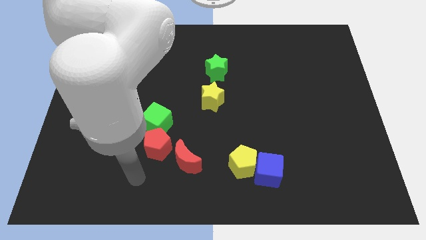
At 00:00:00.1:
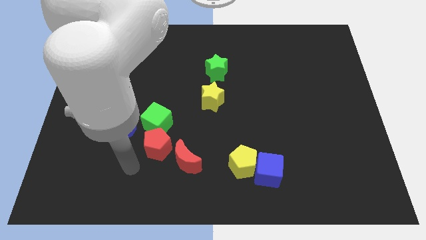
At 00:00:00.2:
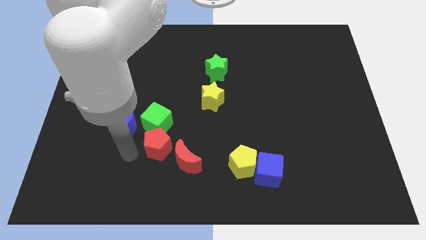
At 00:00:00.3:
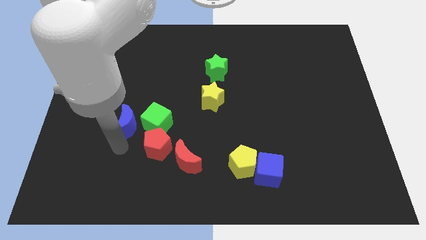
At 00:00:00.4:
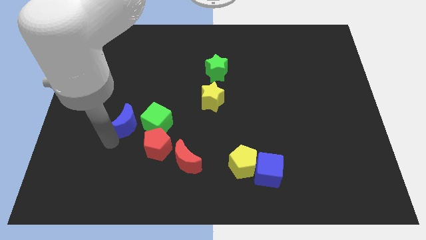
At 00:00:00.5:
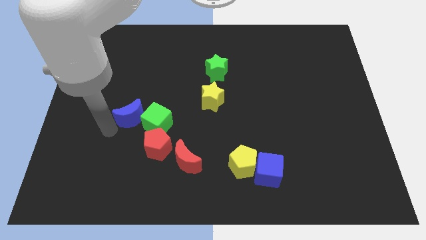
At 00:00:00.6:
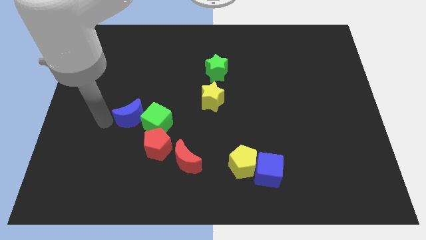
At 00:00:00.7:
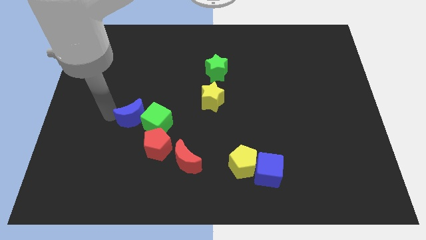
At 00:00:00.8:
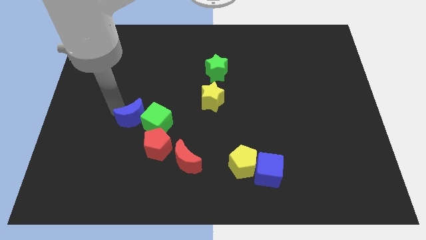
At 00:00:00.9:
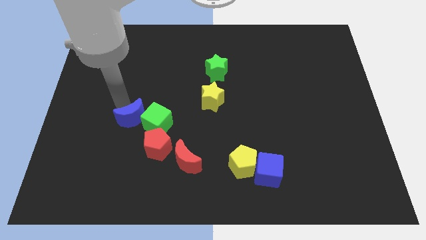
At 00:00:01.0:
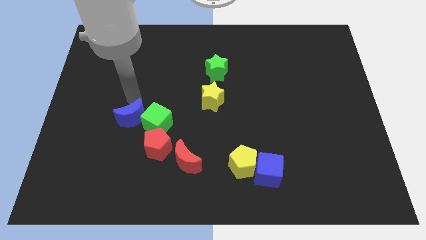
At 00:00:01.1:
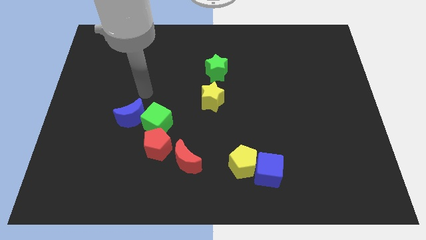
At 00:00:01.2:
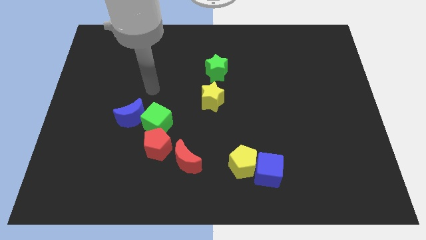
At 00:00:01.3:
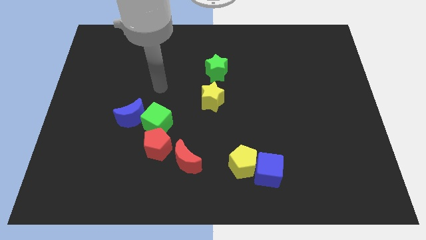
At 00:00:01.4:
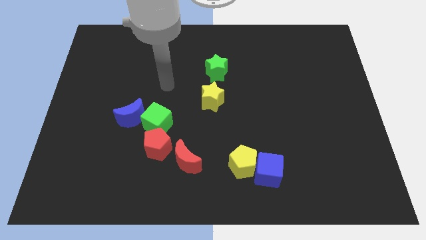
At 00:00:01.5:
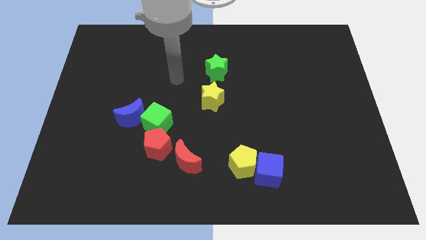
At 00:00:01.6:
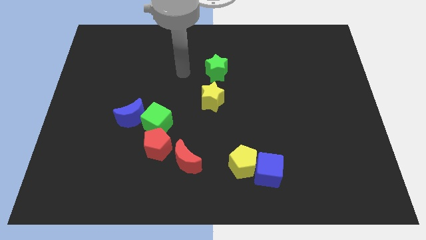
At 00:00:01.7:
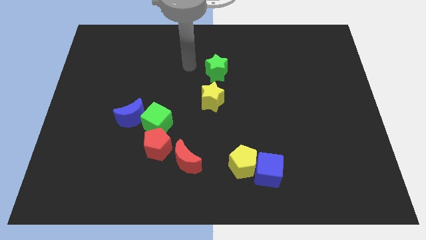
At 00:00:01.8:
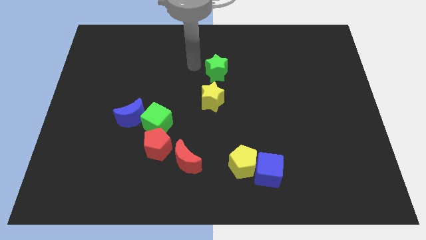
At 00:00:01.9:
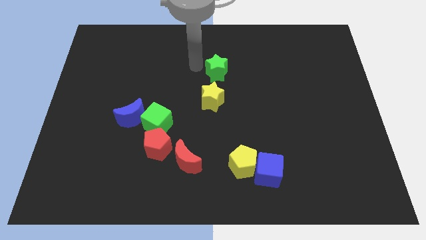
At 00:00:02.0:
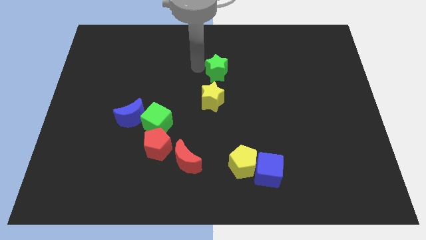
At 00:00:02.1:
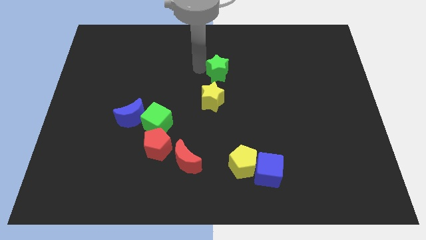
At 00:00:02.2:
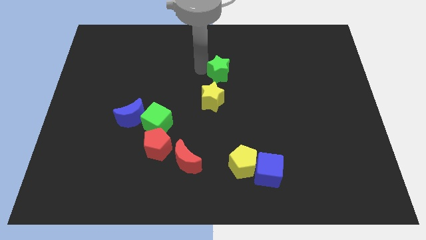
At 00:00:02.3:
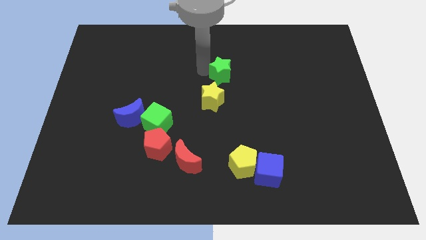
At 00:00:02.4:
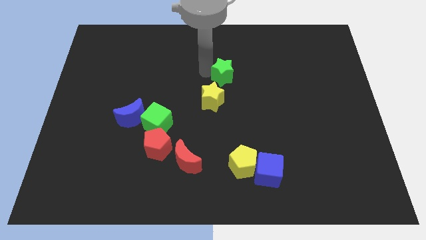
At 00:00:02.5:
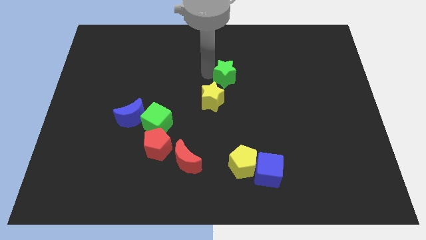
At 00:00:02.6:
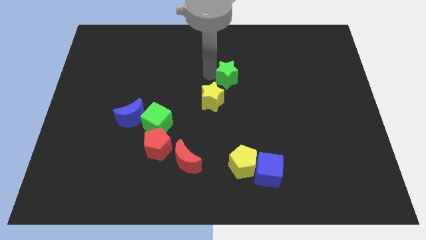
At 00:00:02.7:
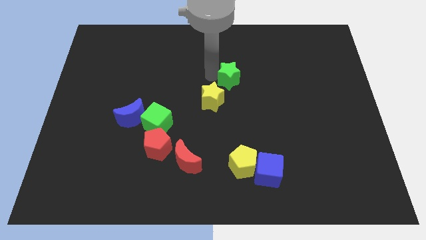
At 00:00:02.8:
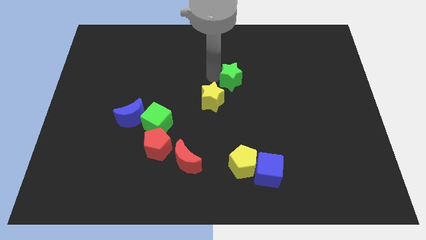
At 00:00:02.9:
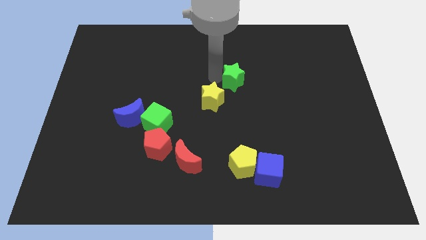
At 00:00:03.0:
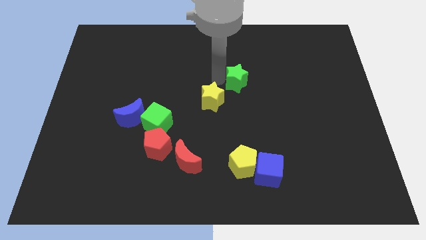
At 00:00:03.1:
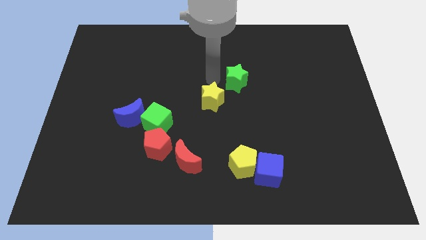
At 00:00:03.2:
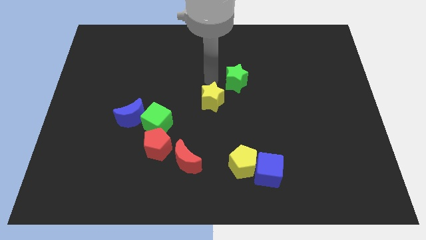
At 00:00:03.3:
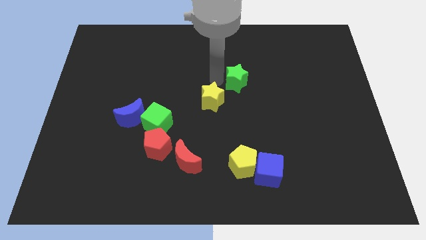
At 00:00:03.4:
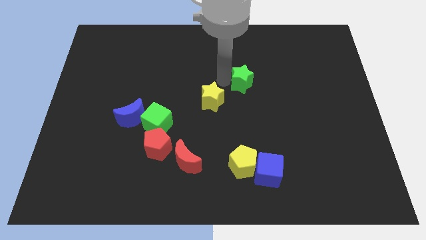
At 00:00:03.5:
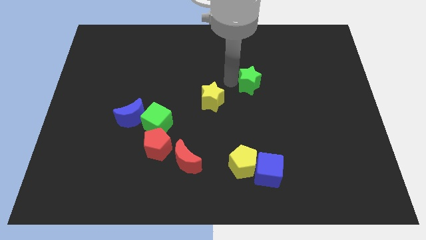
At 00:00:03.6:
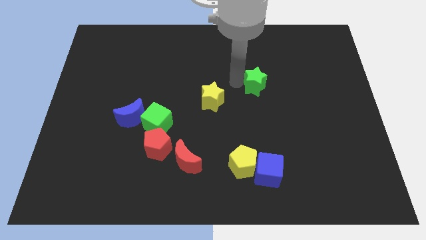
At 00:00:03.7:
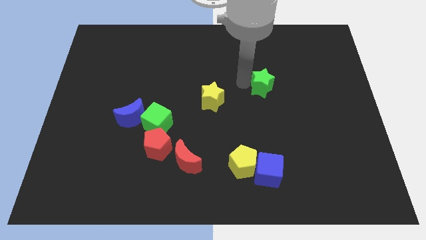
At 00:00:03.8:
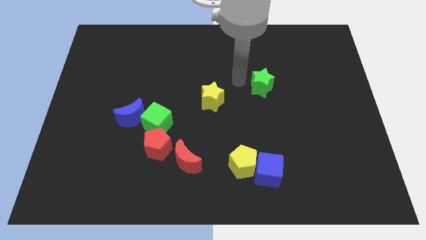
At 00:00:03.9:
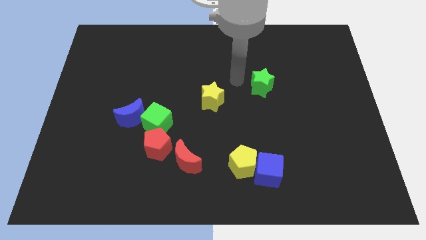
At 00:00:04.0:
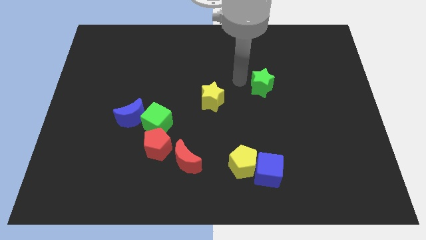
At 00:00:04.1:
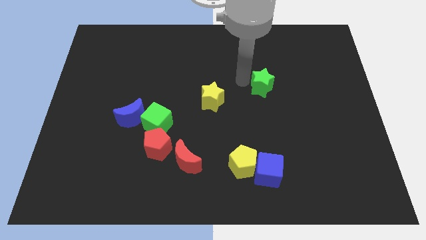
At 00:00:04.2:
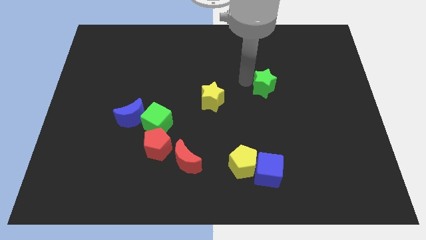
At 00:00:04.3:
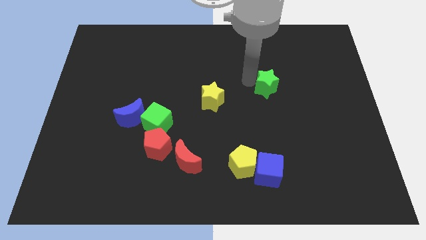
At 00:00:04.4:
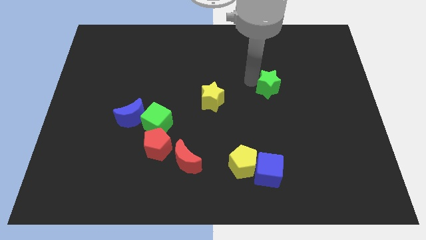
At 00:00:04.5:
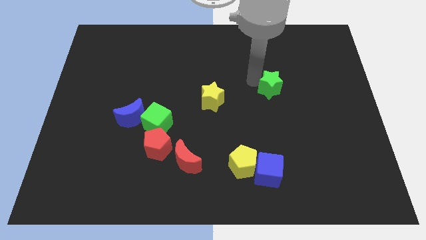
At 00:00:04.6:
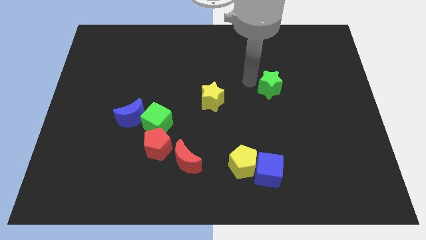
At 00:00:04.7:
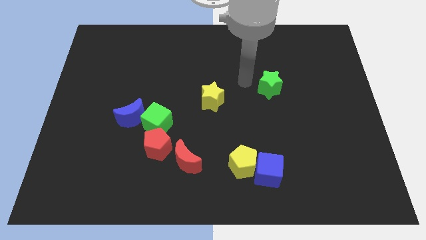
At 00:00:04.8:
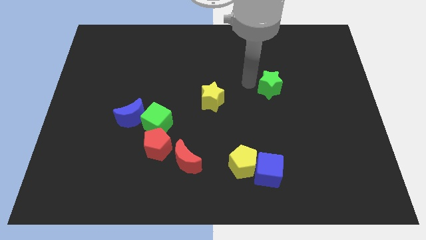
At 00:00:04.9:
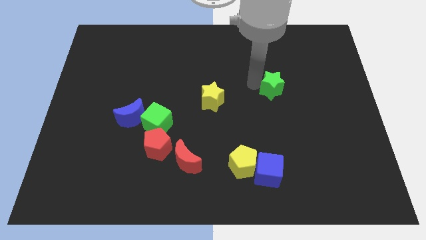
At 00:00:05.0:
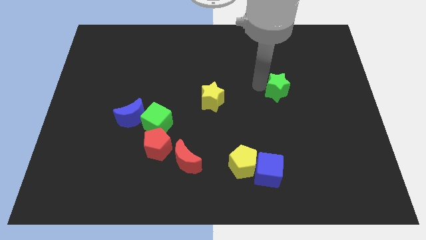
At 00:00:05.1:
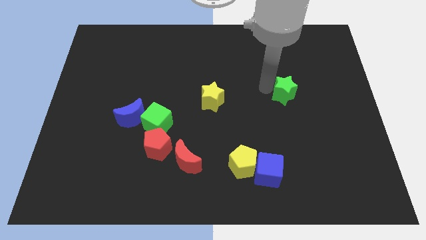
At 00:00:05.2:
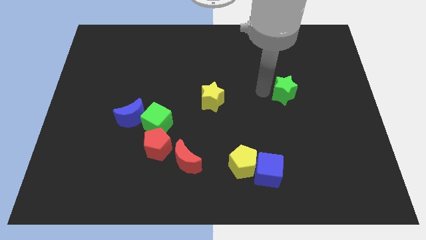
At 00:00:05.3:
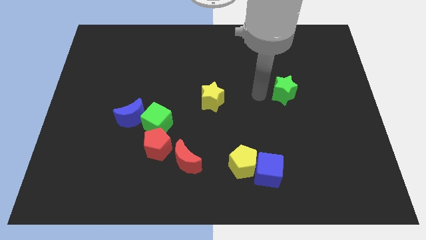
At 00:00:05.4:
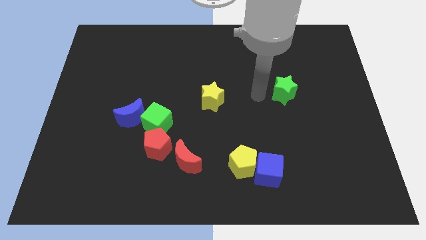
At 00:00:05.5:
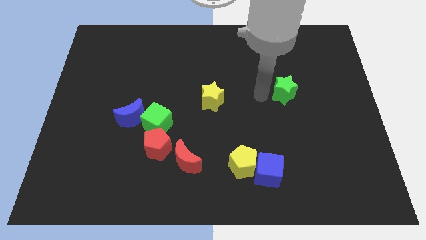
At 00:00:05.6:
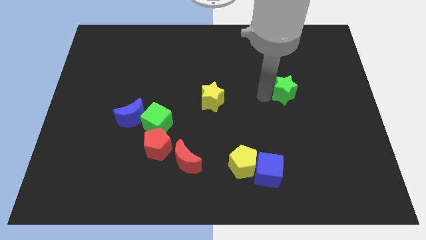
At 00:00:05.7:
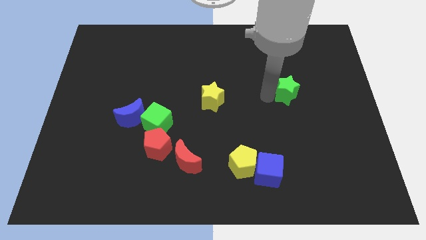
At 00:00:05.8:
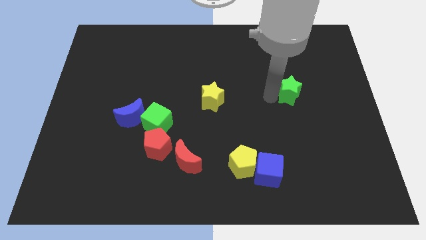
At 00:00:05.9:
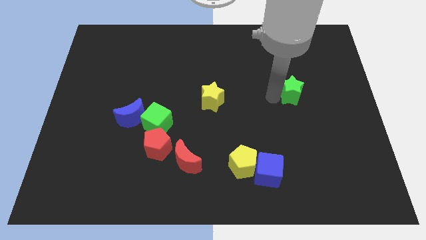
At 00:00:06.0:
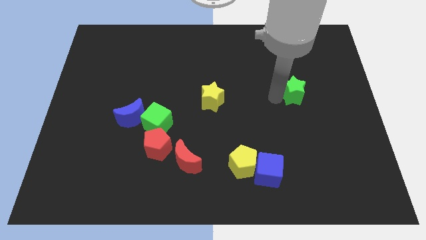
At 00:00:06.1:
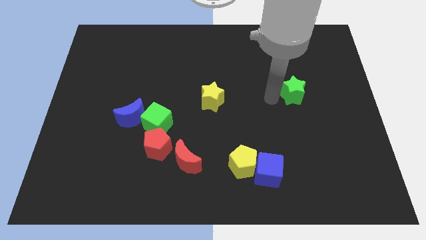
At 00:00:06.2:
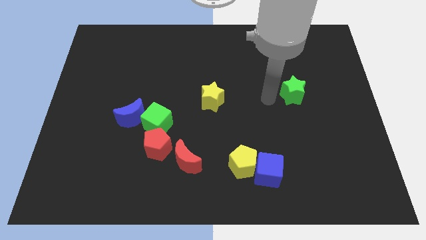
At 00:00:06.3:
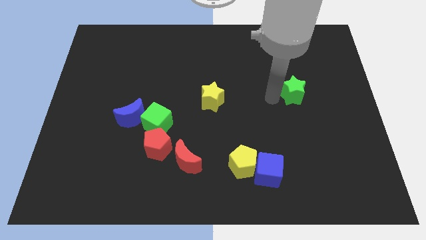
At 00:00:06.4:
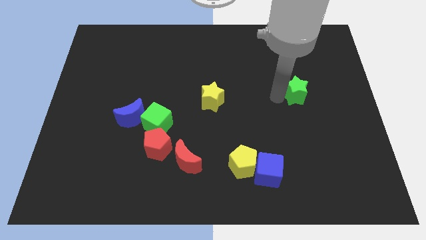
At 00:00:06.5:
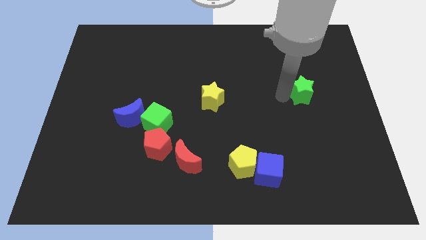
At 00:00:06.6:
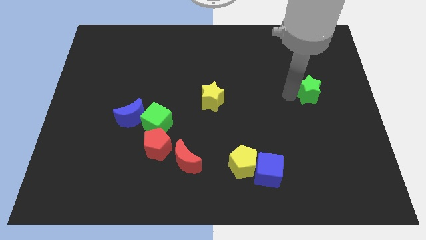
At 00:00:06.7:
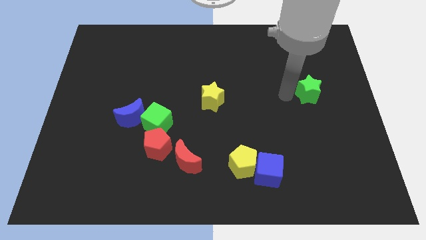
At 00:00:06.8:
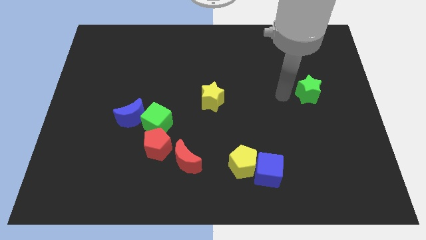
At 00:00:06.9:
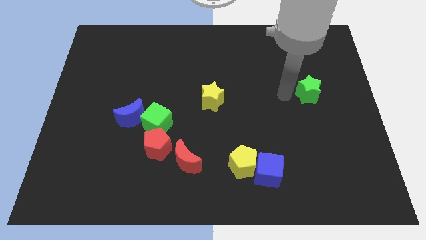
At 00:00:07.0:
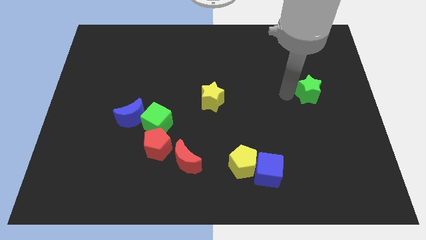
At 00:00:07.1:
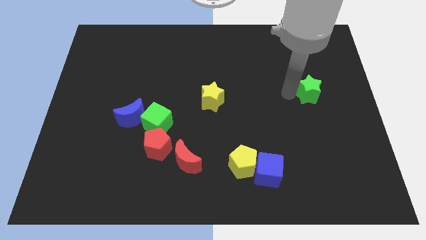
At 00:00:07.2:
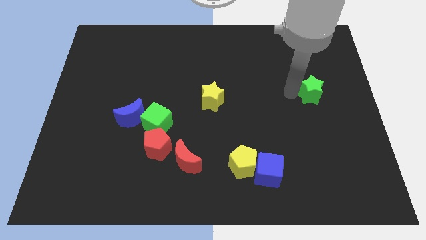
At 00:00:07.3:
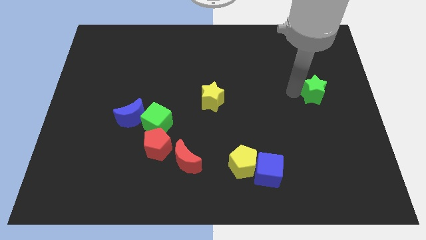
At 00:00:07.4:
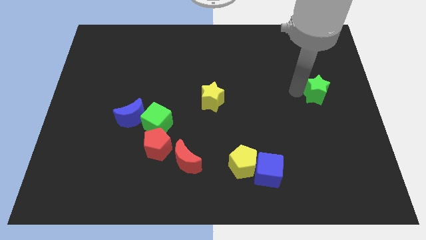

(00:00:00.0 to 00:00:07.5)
slide the green star to the center right

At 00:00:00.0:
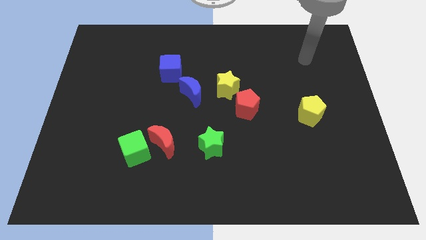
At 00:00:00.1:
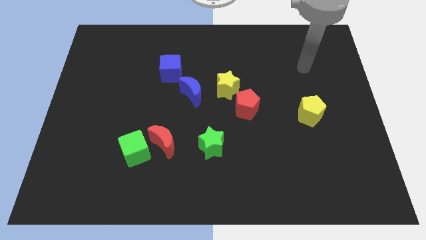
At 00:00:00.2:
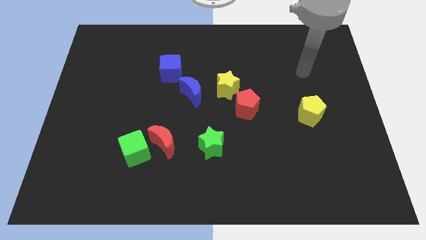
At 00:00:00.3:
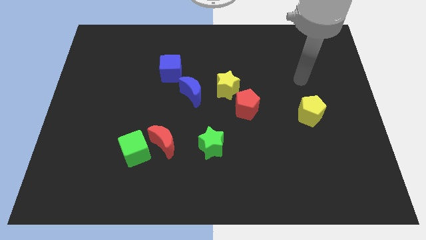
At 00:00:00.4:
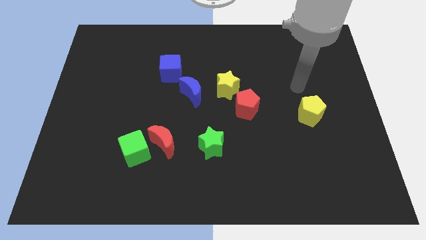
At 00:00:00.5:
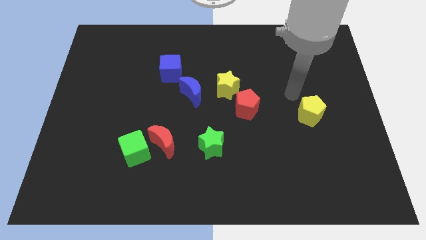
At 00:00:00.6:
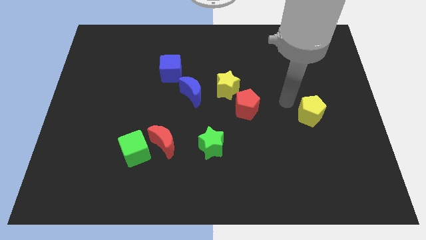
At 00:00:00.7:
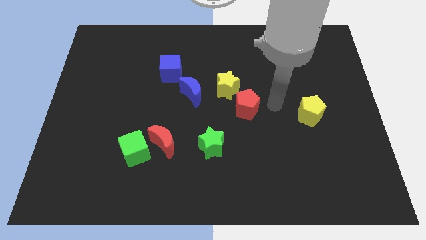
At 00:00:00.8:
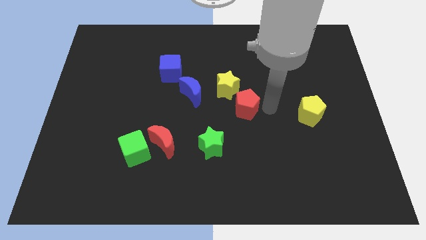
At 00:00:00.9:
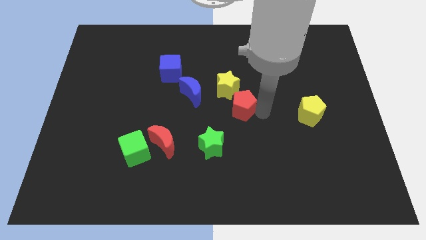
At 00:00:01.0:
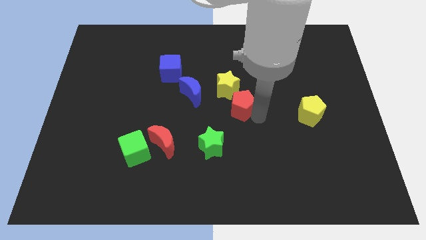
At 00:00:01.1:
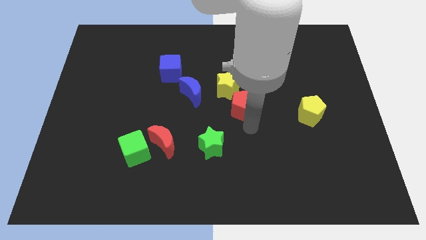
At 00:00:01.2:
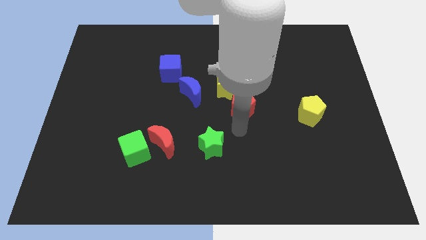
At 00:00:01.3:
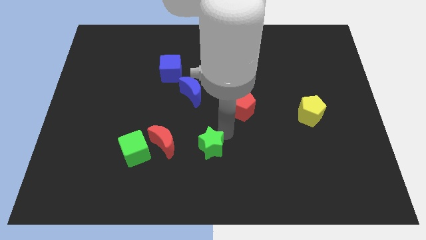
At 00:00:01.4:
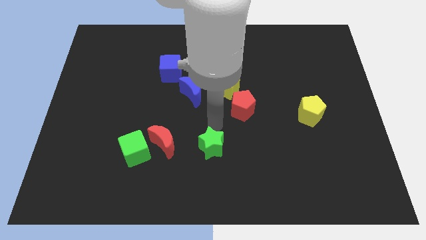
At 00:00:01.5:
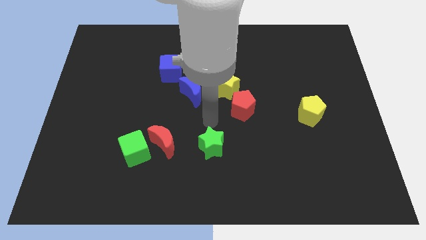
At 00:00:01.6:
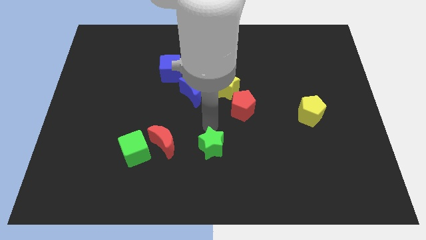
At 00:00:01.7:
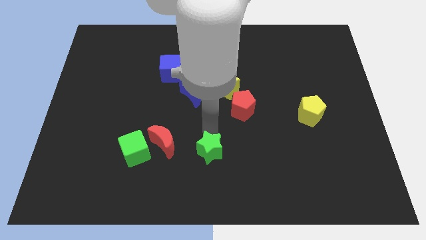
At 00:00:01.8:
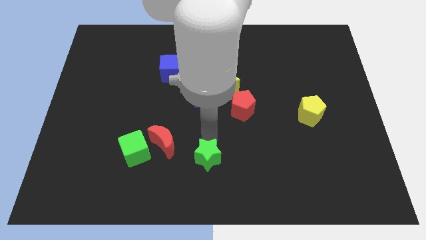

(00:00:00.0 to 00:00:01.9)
put the green star to the bottom side
